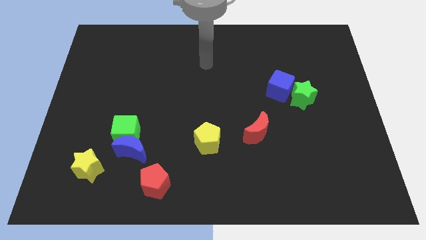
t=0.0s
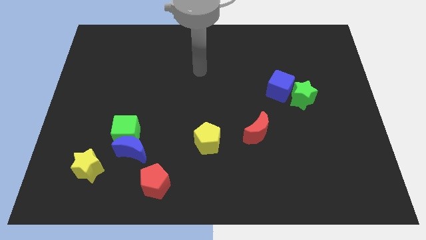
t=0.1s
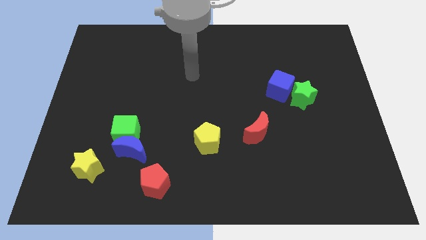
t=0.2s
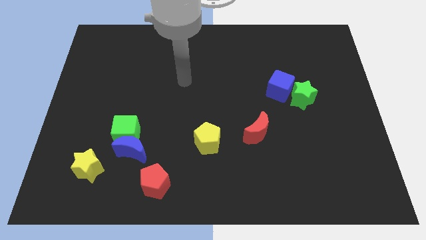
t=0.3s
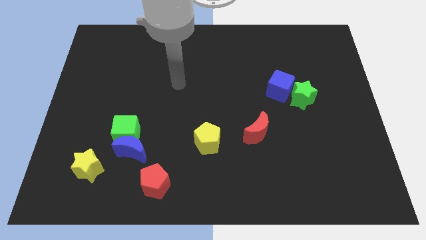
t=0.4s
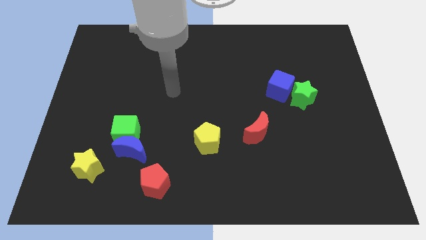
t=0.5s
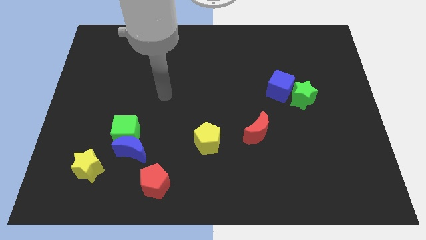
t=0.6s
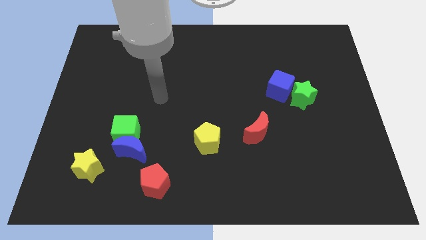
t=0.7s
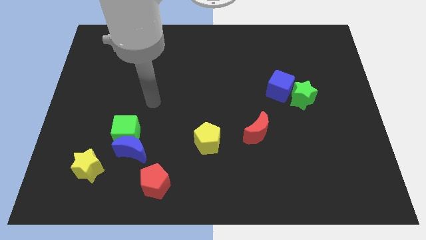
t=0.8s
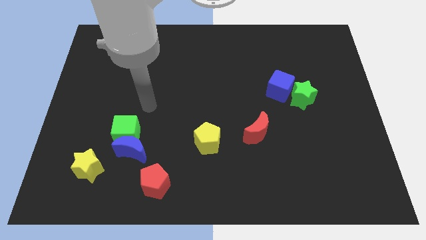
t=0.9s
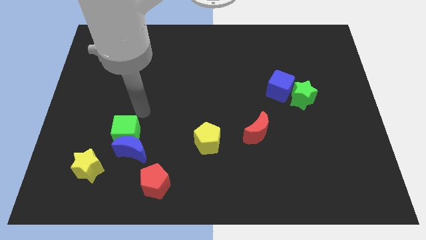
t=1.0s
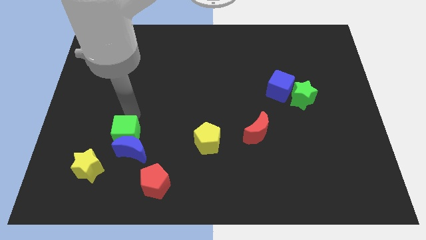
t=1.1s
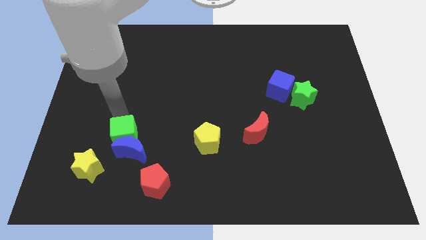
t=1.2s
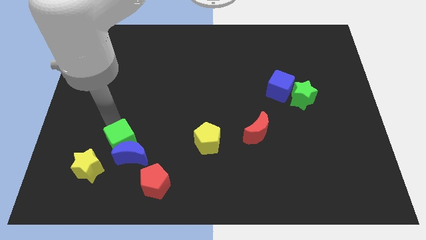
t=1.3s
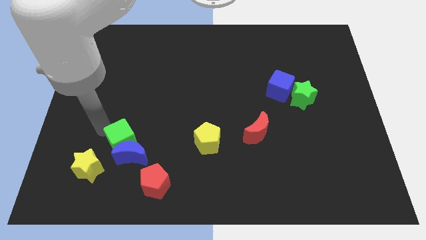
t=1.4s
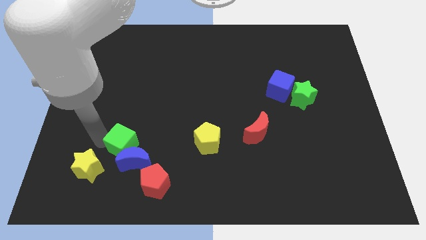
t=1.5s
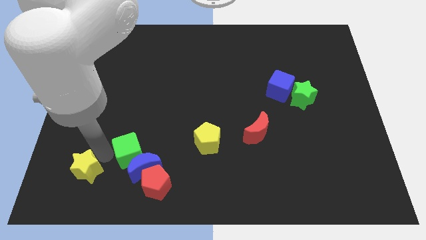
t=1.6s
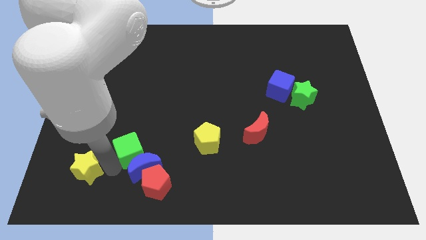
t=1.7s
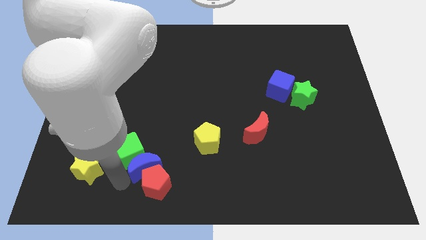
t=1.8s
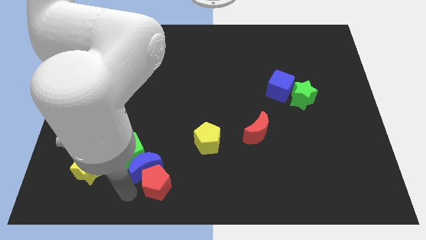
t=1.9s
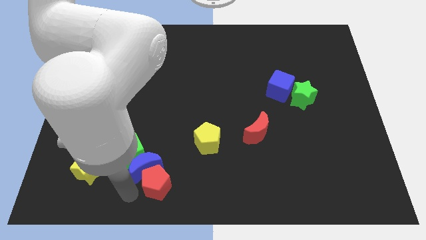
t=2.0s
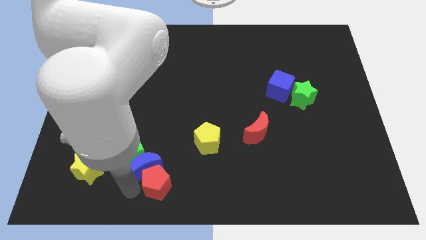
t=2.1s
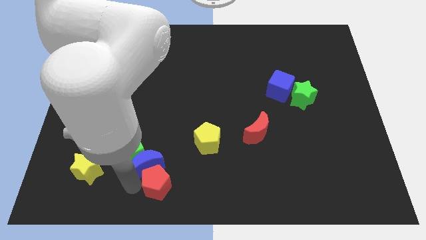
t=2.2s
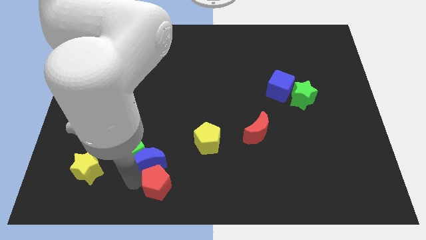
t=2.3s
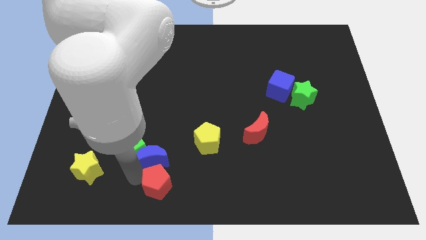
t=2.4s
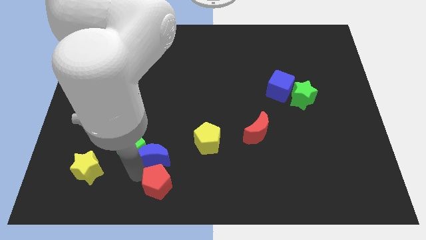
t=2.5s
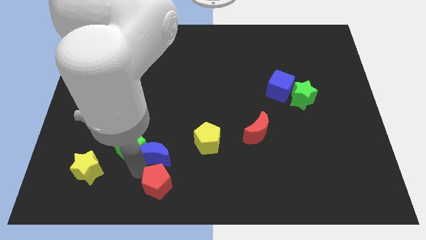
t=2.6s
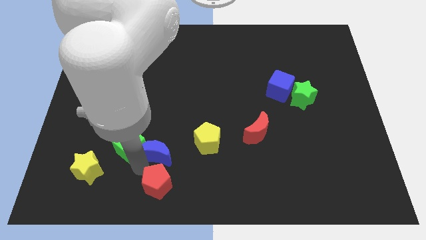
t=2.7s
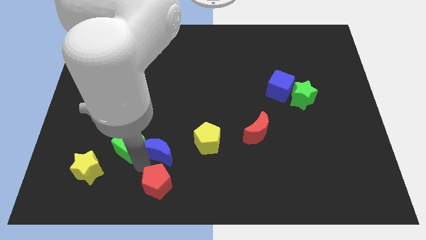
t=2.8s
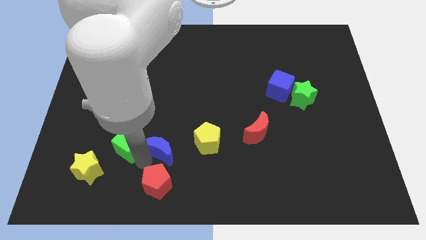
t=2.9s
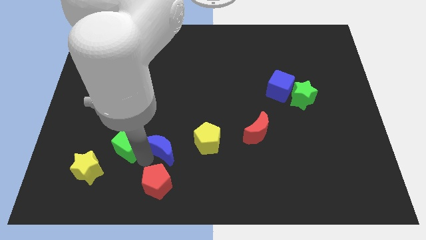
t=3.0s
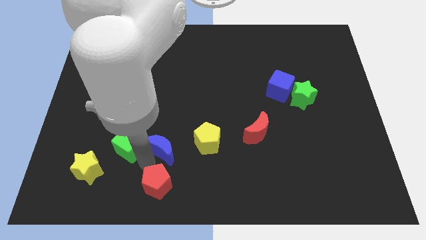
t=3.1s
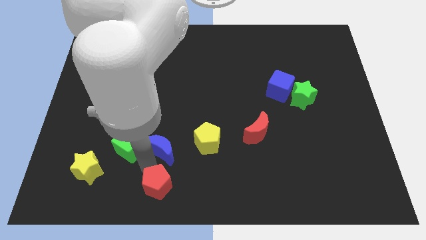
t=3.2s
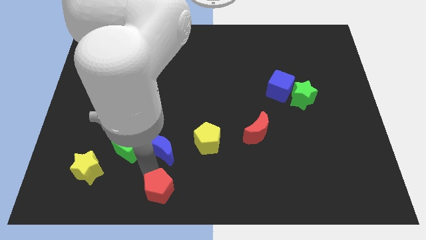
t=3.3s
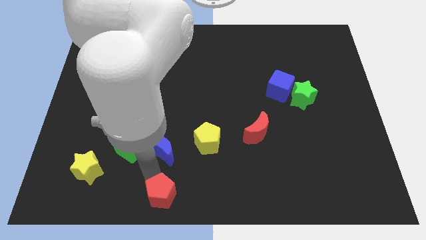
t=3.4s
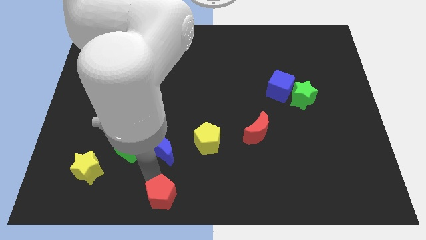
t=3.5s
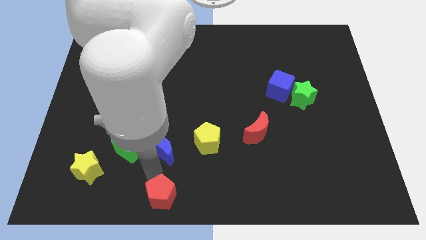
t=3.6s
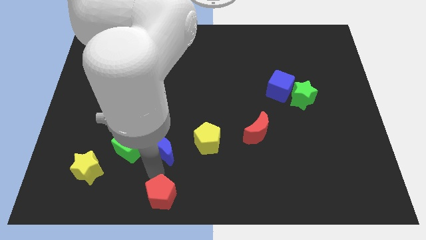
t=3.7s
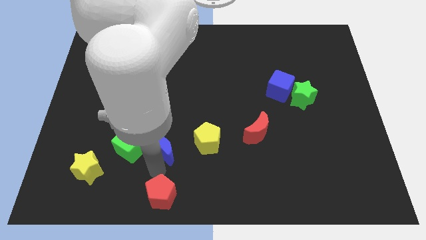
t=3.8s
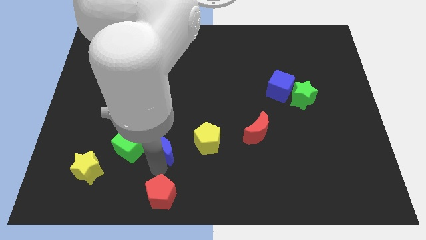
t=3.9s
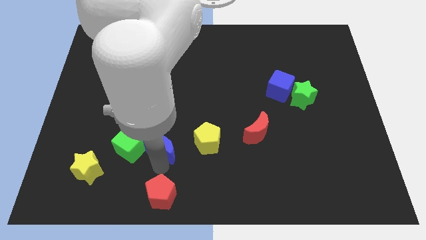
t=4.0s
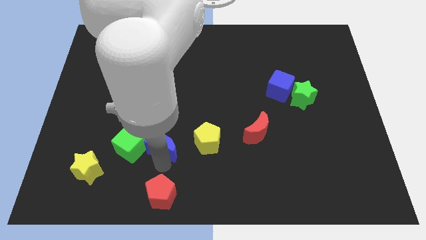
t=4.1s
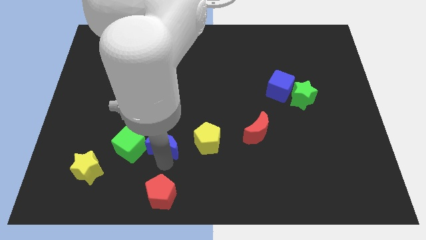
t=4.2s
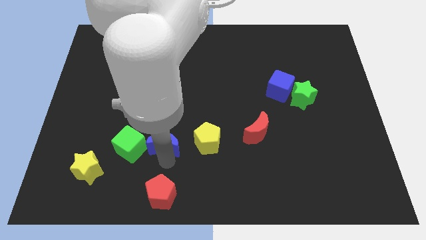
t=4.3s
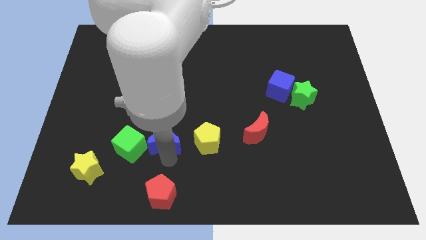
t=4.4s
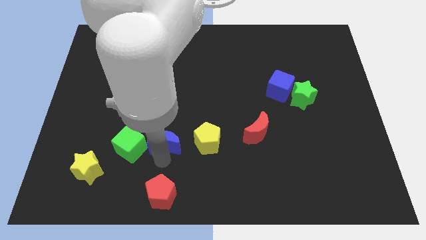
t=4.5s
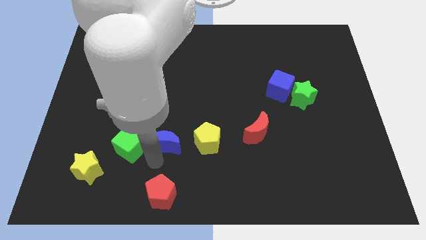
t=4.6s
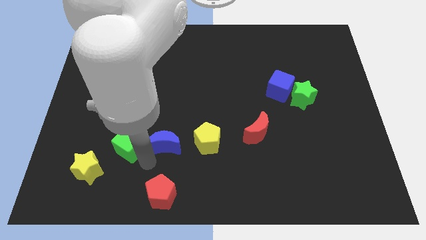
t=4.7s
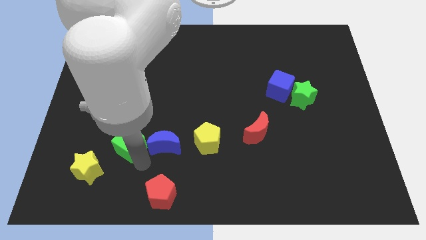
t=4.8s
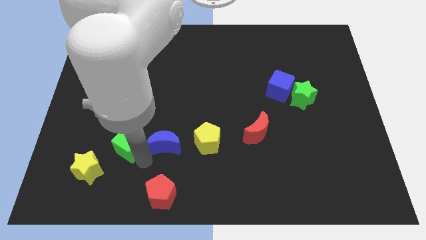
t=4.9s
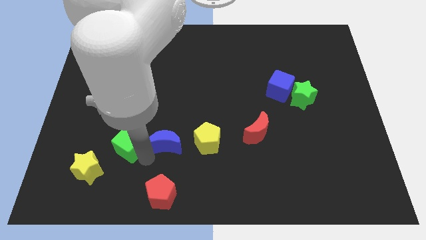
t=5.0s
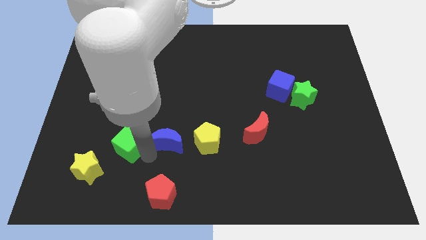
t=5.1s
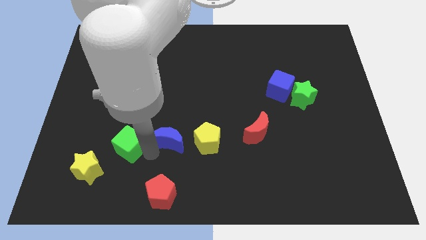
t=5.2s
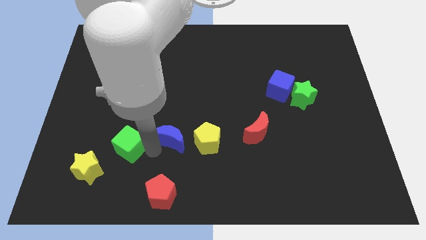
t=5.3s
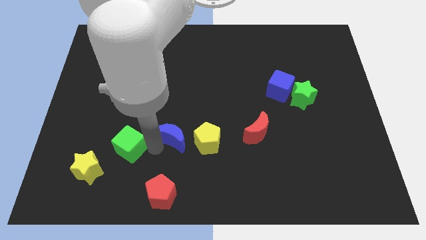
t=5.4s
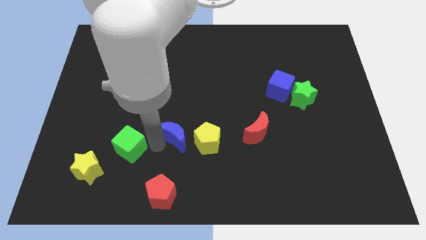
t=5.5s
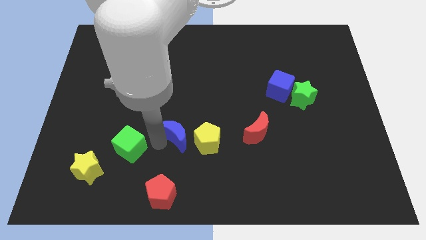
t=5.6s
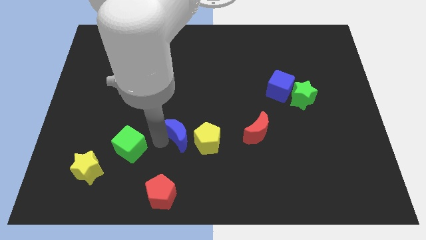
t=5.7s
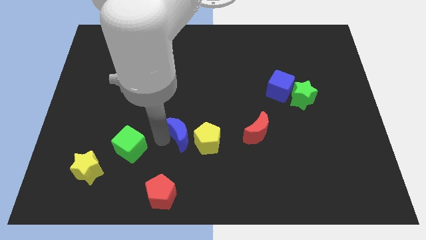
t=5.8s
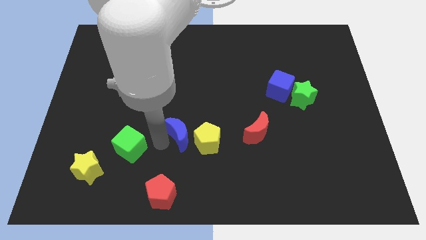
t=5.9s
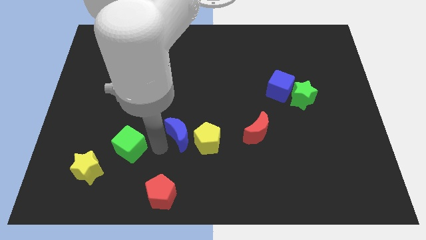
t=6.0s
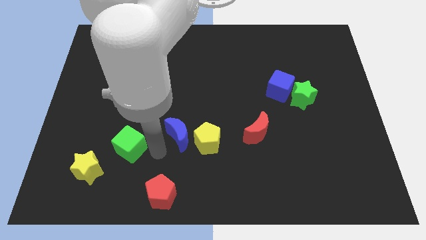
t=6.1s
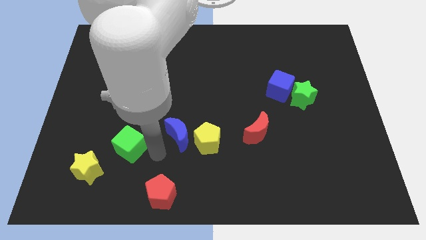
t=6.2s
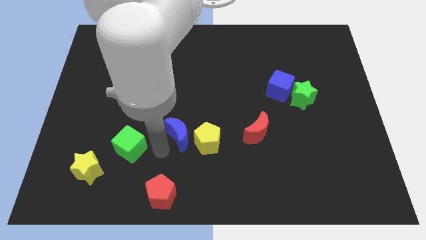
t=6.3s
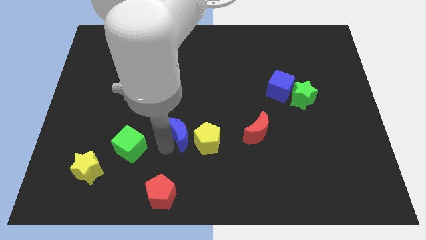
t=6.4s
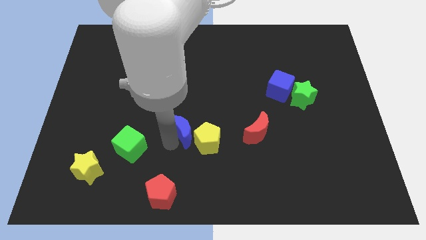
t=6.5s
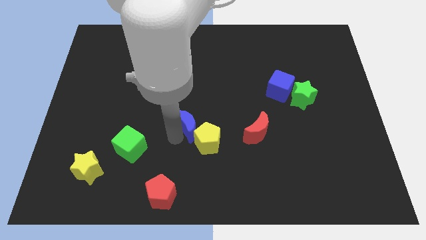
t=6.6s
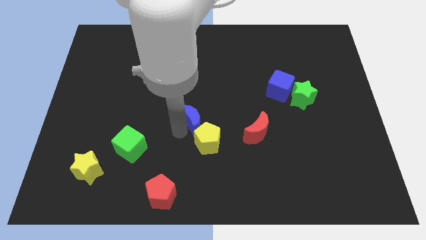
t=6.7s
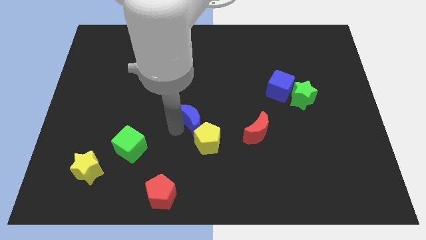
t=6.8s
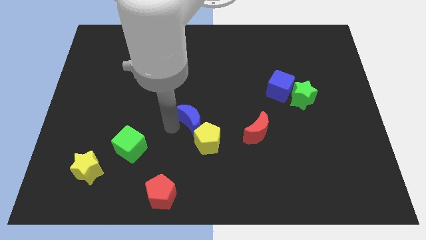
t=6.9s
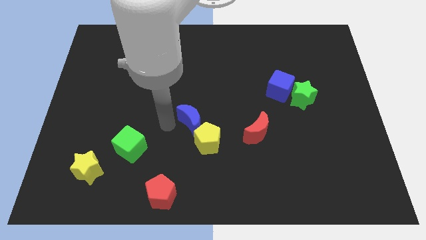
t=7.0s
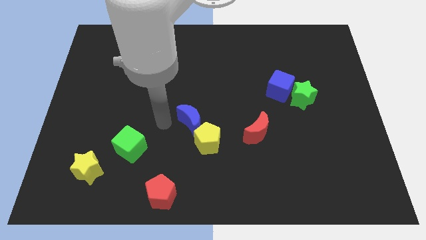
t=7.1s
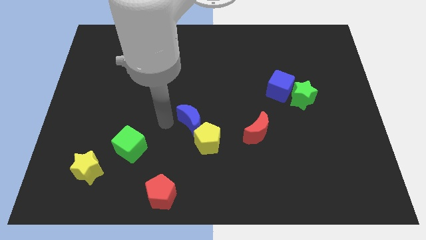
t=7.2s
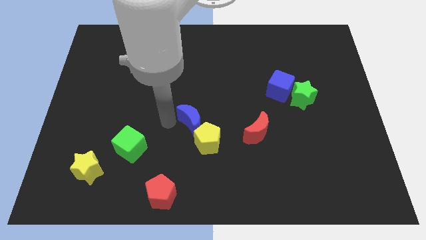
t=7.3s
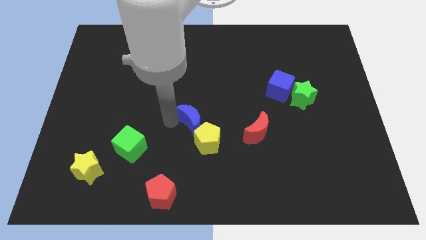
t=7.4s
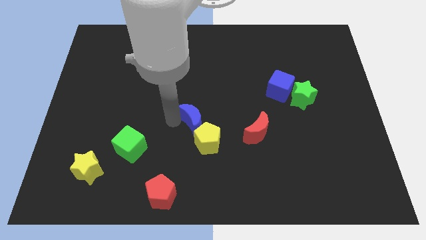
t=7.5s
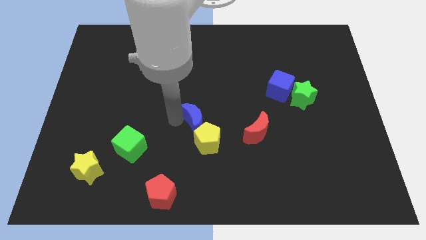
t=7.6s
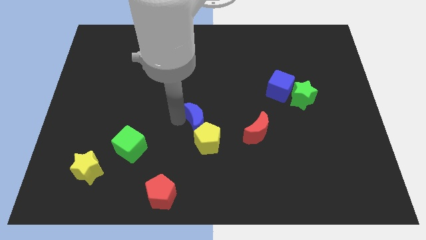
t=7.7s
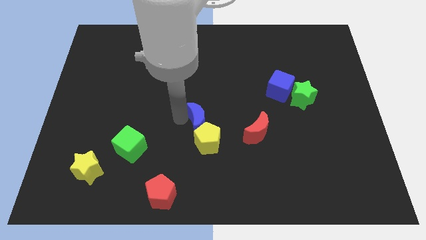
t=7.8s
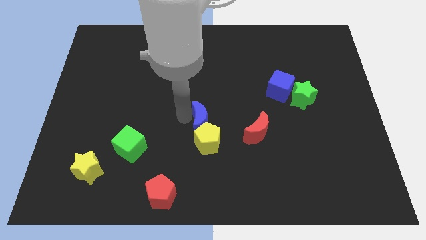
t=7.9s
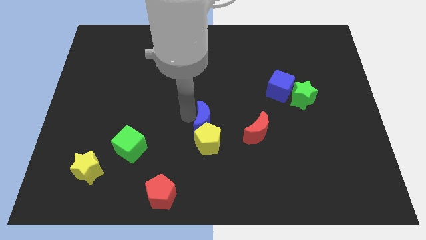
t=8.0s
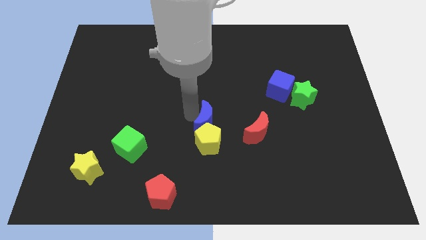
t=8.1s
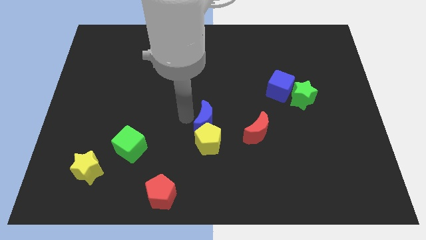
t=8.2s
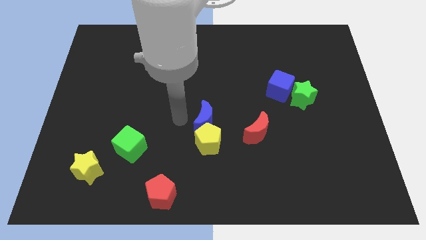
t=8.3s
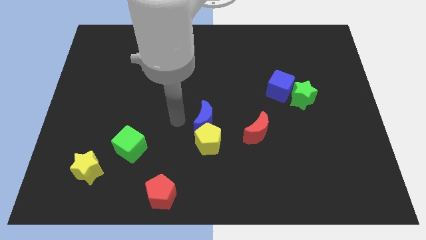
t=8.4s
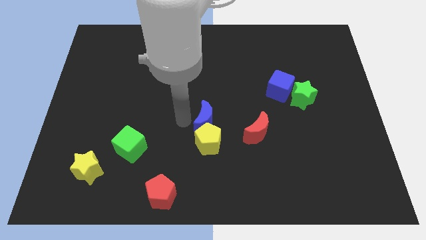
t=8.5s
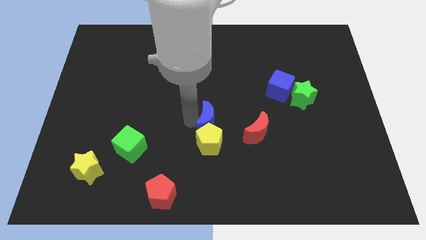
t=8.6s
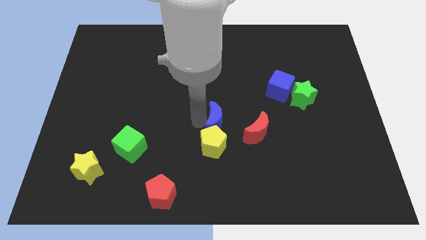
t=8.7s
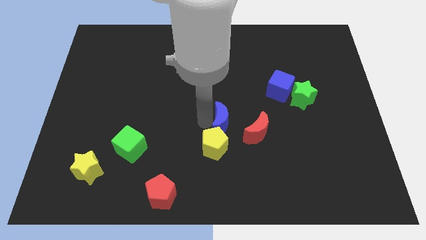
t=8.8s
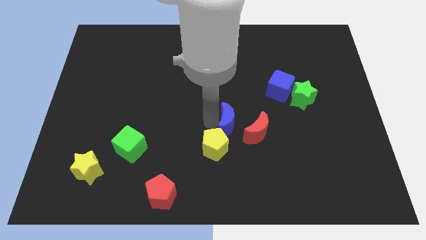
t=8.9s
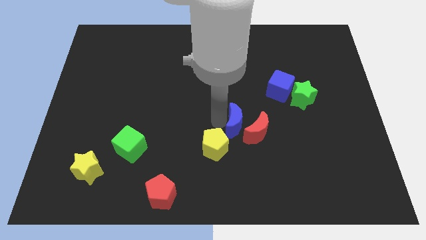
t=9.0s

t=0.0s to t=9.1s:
slide the blue moon towards the red moon
